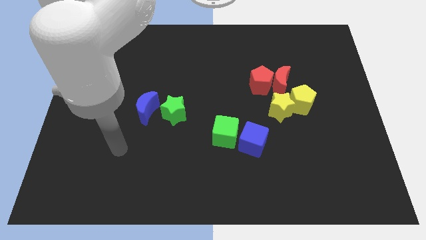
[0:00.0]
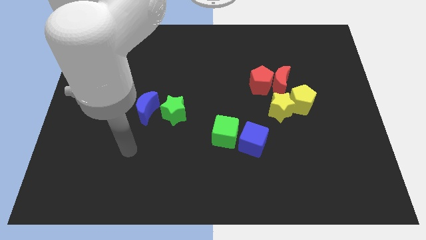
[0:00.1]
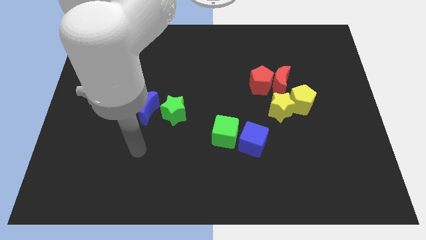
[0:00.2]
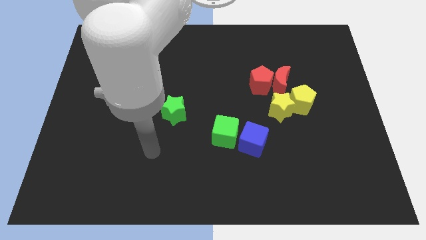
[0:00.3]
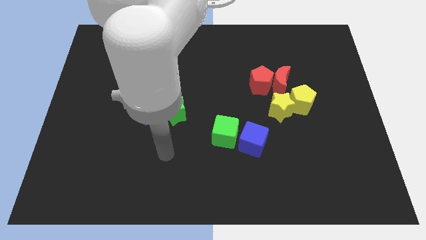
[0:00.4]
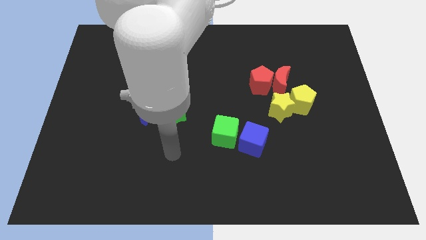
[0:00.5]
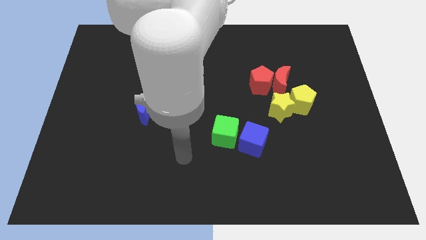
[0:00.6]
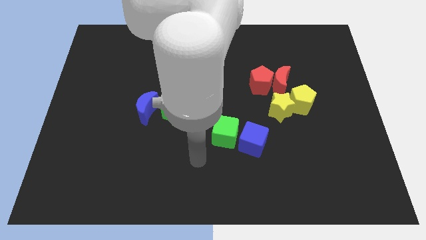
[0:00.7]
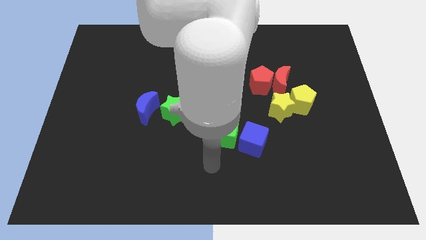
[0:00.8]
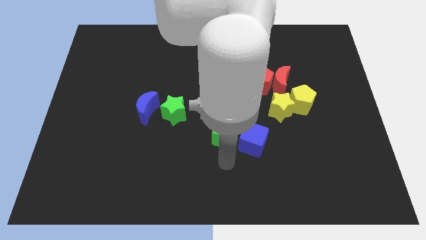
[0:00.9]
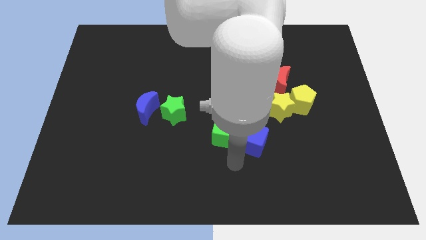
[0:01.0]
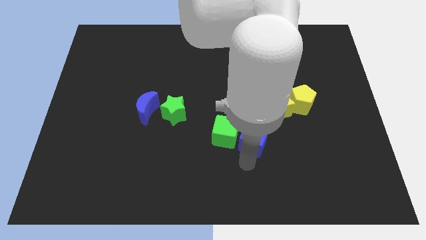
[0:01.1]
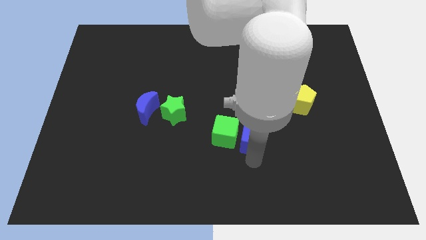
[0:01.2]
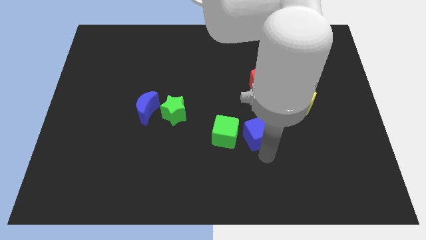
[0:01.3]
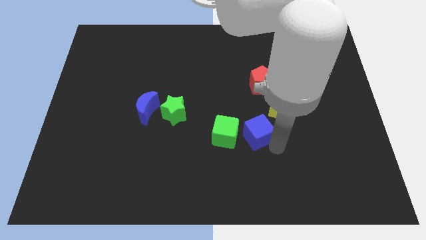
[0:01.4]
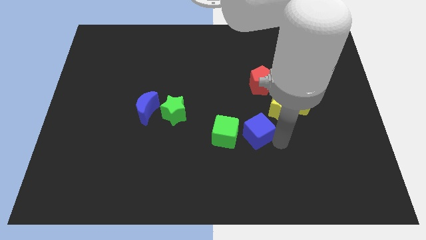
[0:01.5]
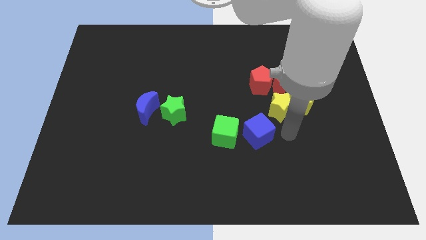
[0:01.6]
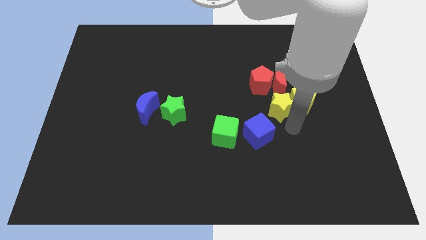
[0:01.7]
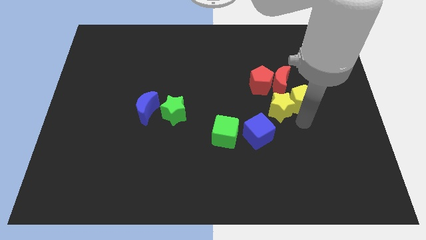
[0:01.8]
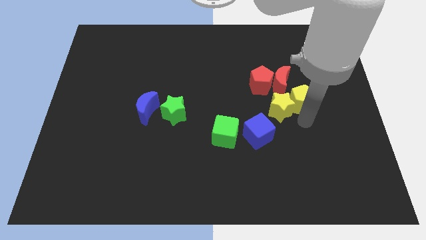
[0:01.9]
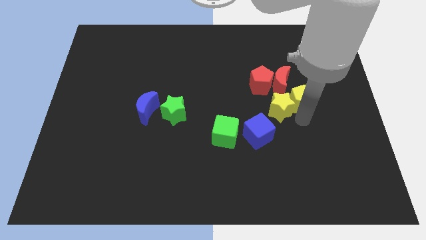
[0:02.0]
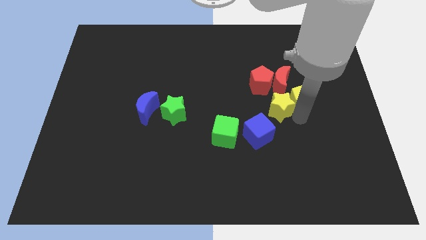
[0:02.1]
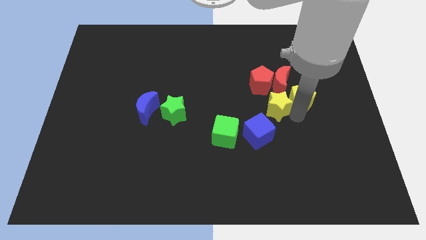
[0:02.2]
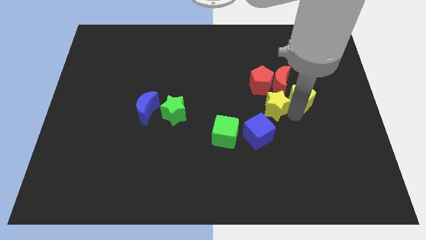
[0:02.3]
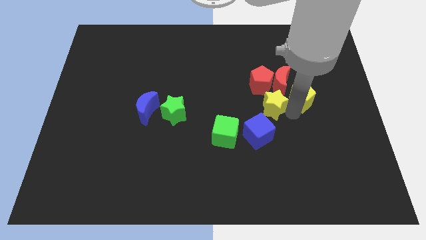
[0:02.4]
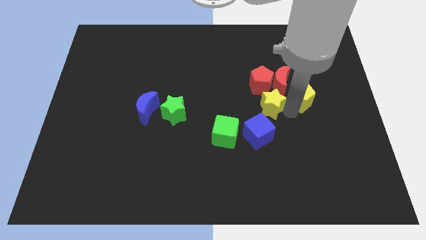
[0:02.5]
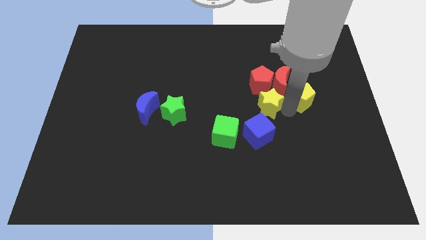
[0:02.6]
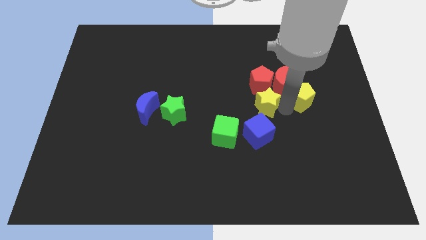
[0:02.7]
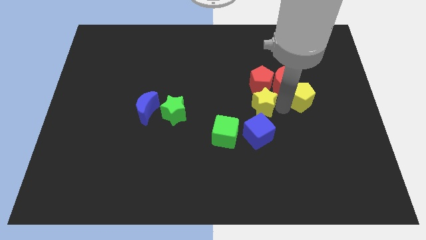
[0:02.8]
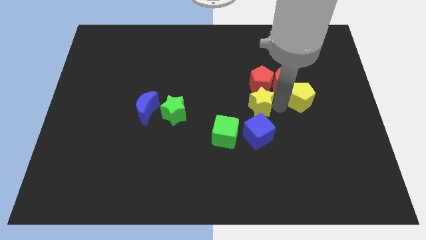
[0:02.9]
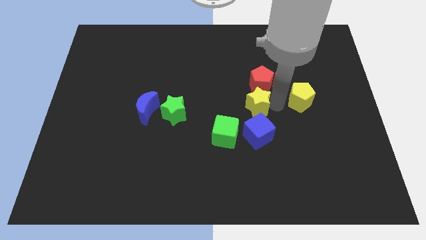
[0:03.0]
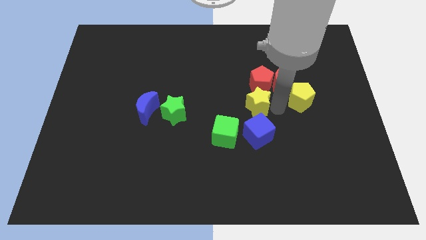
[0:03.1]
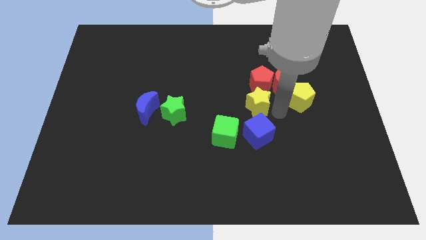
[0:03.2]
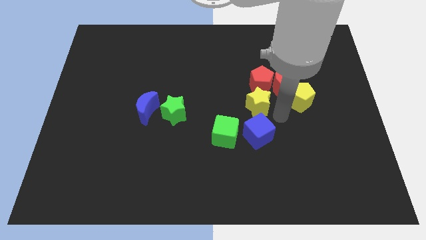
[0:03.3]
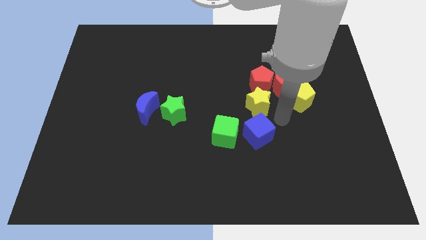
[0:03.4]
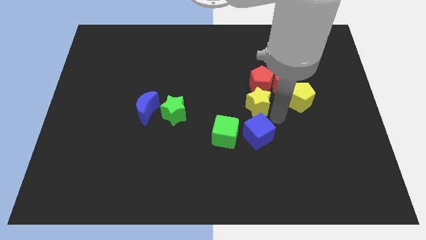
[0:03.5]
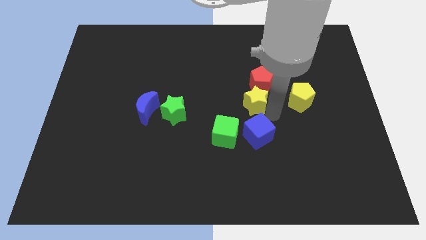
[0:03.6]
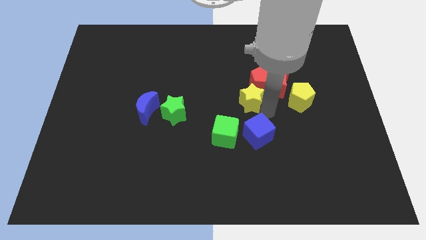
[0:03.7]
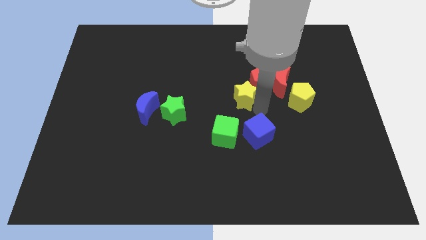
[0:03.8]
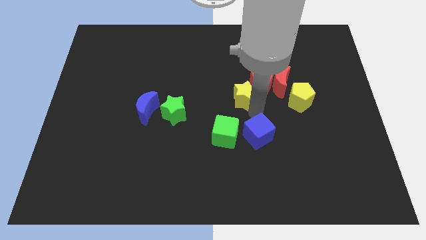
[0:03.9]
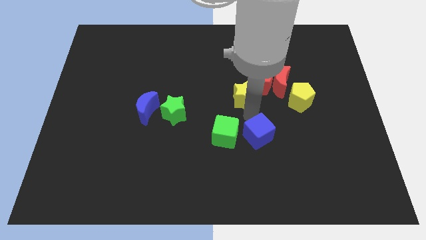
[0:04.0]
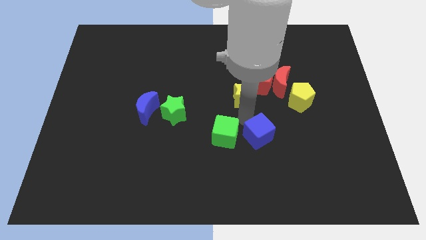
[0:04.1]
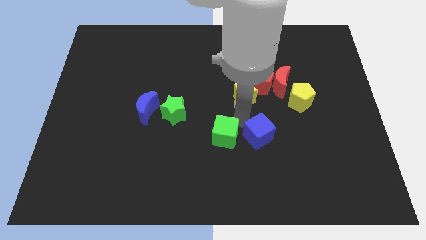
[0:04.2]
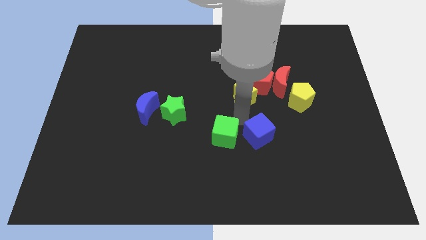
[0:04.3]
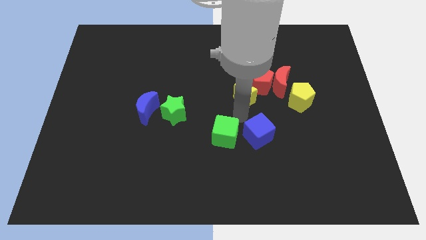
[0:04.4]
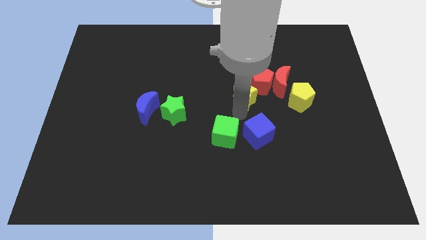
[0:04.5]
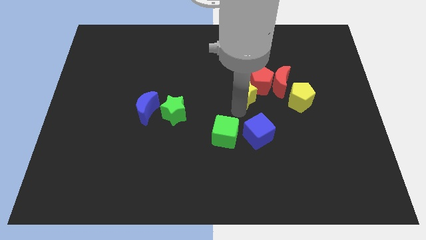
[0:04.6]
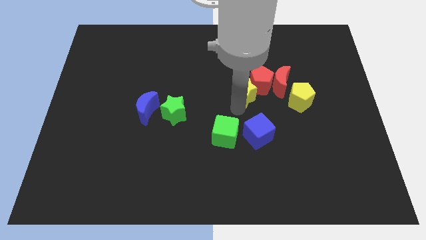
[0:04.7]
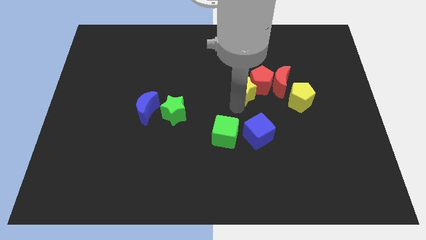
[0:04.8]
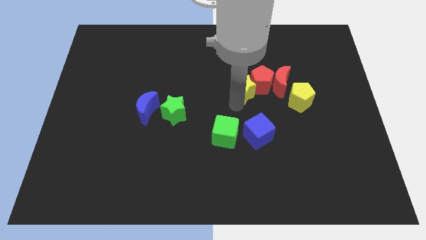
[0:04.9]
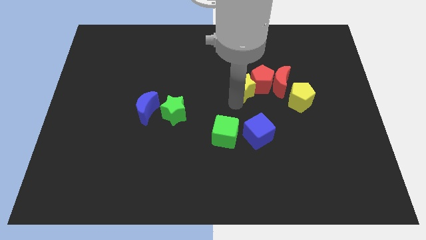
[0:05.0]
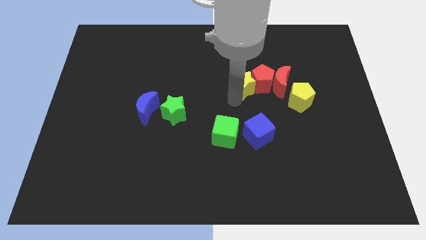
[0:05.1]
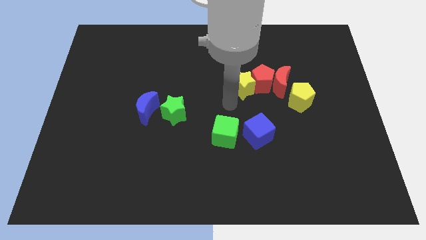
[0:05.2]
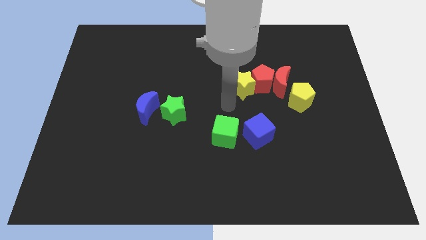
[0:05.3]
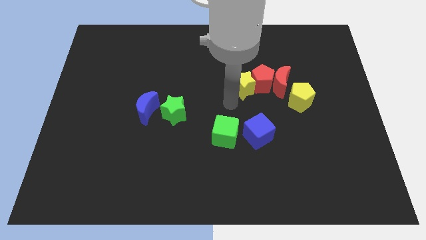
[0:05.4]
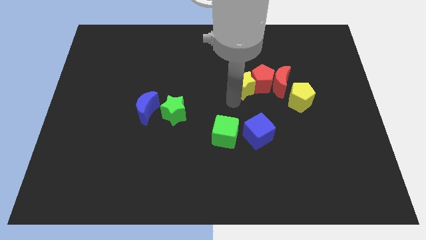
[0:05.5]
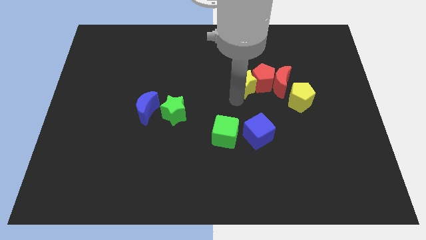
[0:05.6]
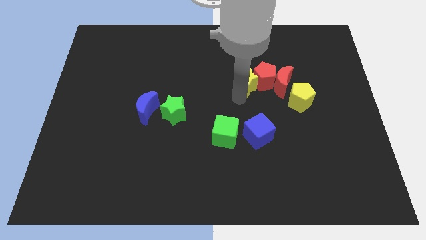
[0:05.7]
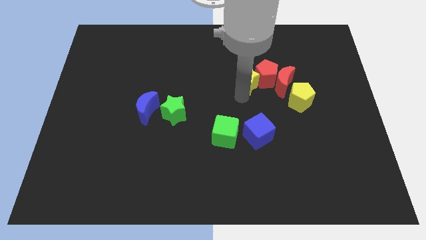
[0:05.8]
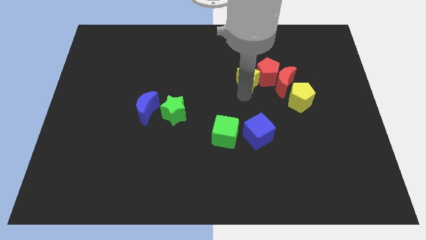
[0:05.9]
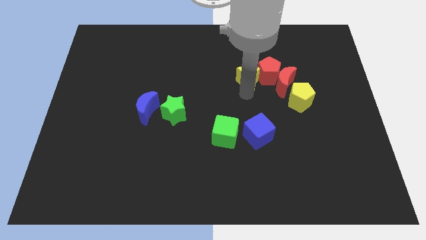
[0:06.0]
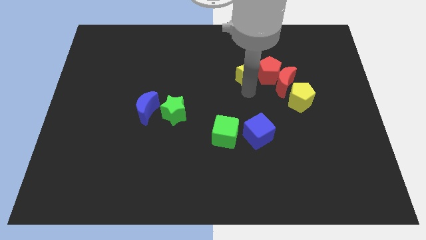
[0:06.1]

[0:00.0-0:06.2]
put the yellow star diagonally up and to the left of the red moon

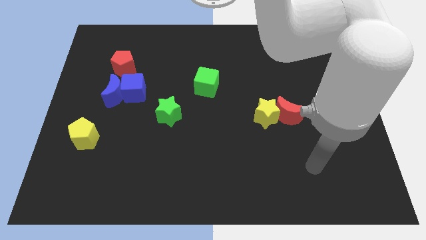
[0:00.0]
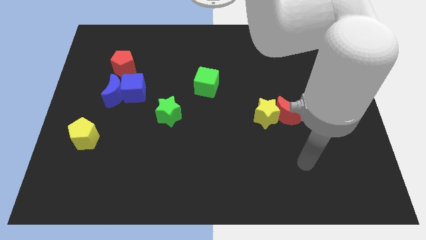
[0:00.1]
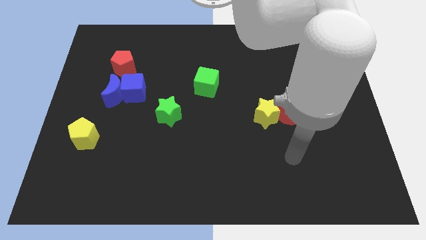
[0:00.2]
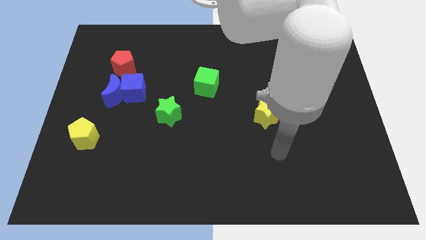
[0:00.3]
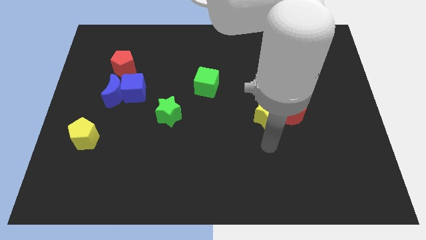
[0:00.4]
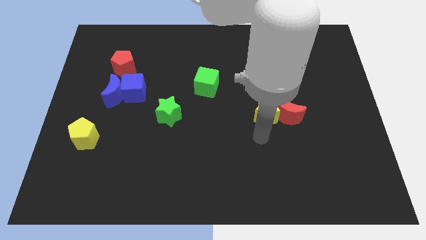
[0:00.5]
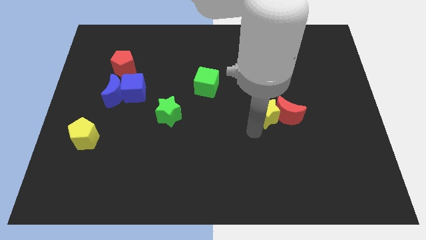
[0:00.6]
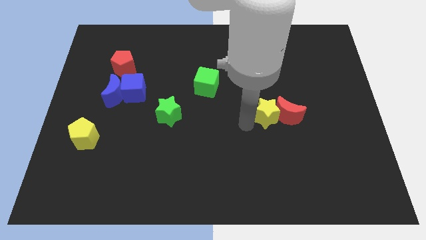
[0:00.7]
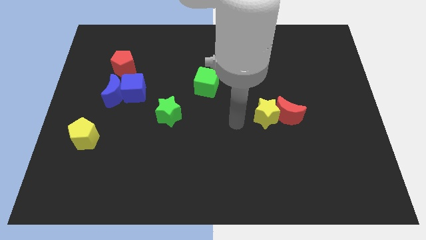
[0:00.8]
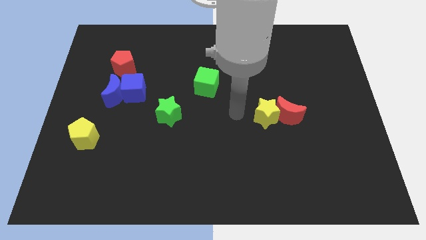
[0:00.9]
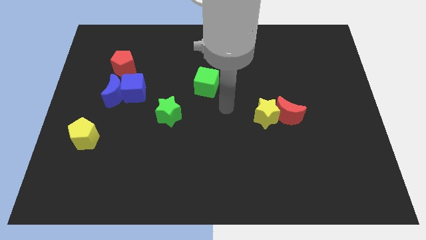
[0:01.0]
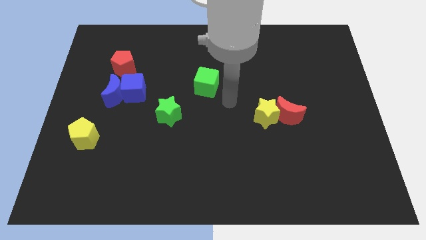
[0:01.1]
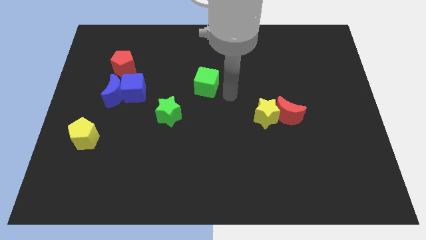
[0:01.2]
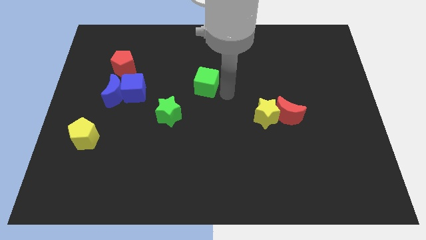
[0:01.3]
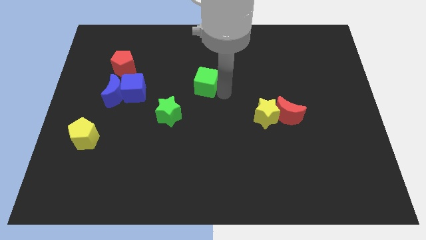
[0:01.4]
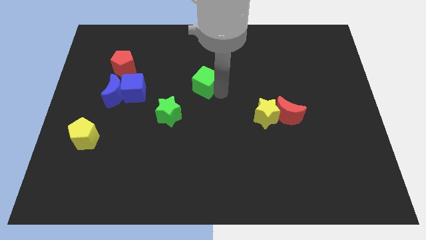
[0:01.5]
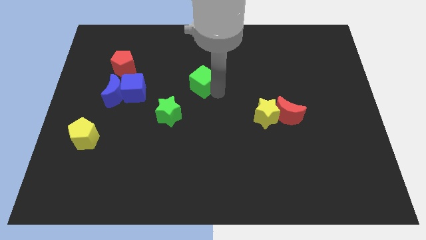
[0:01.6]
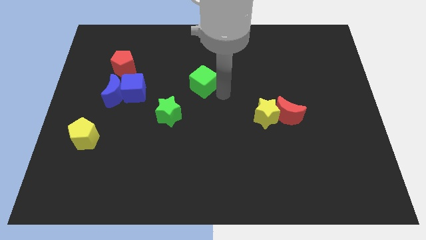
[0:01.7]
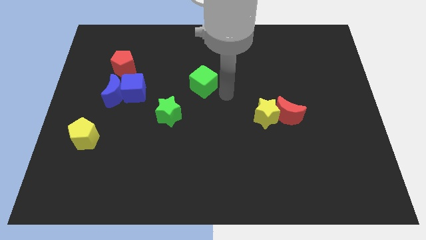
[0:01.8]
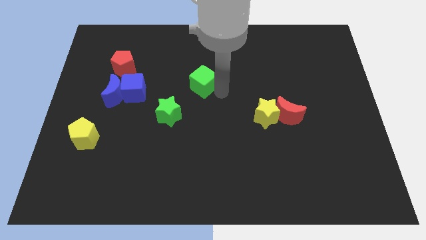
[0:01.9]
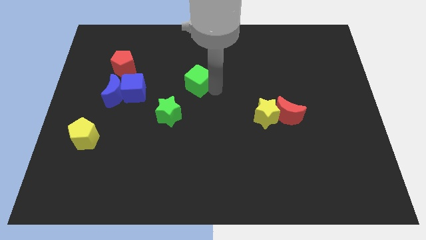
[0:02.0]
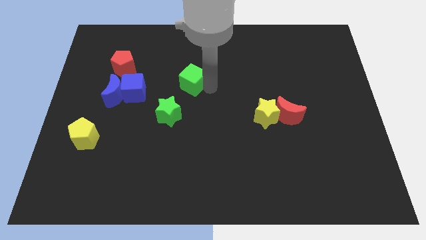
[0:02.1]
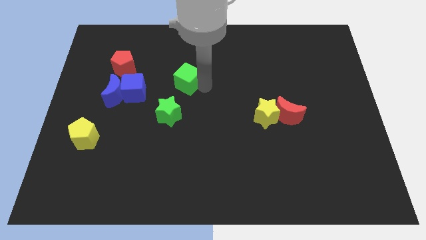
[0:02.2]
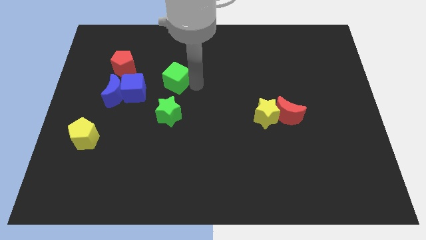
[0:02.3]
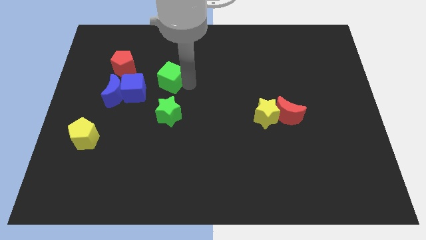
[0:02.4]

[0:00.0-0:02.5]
move the green cube to the right of the red pentagon
